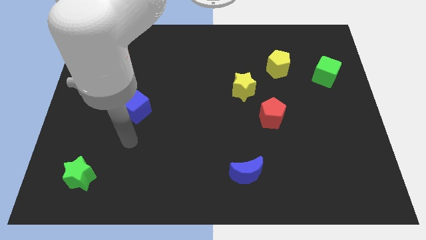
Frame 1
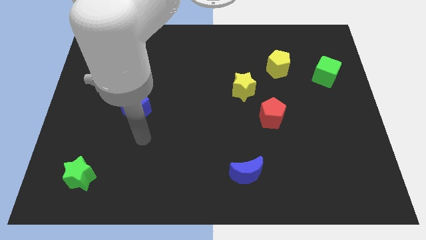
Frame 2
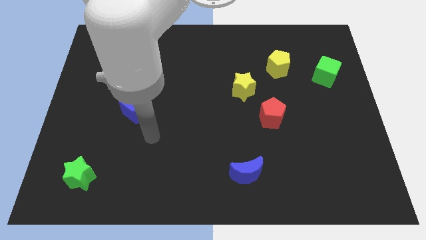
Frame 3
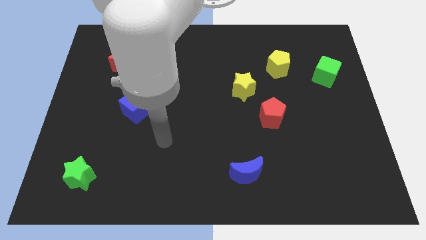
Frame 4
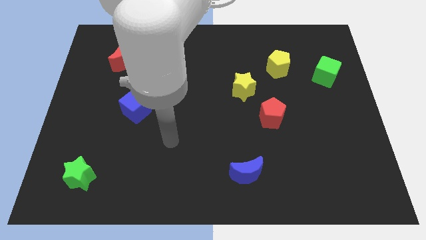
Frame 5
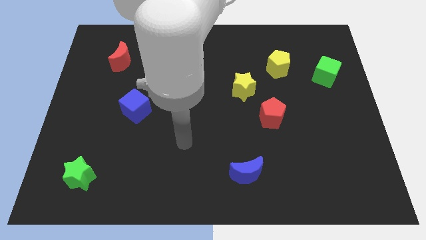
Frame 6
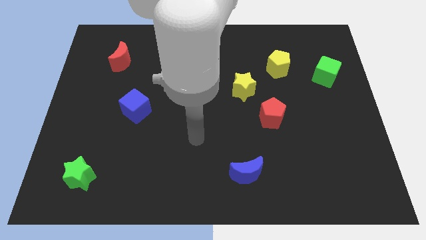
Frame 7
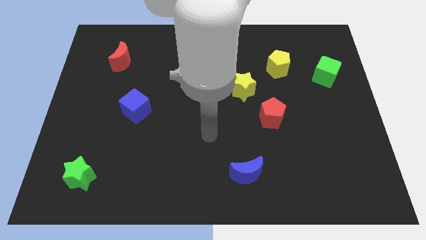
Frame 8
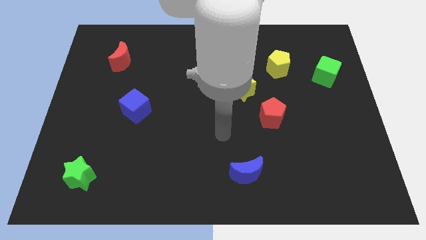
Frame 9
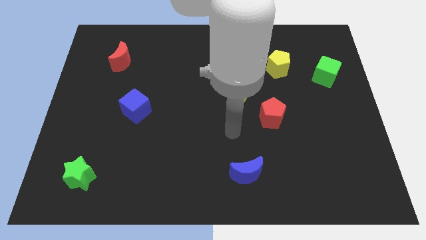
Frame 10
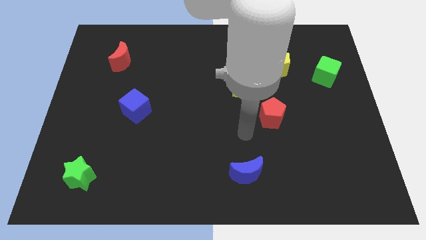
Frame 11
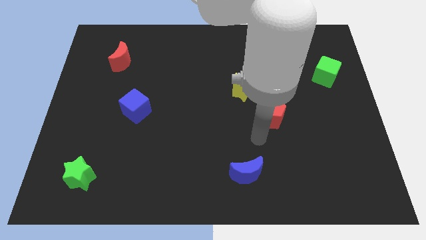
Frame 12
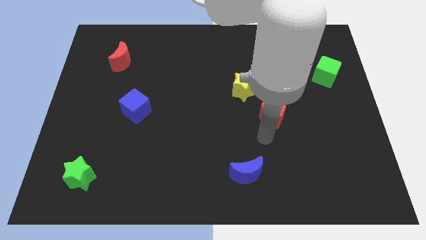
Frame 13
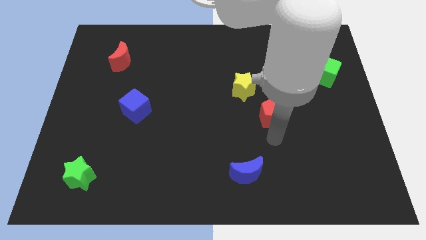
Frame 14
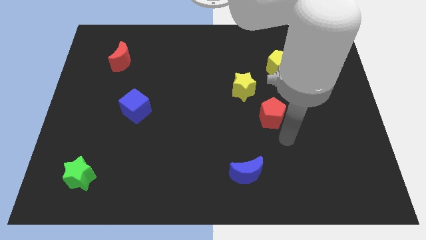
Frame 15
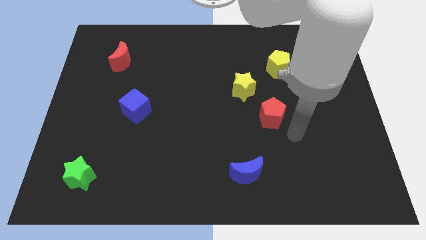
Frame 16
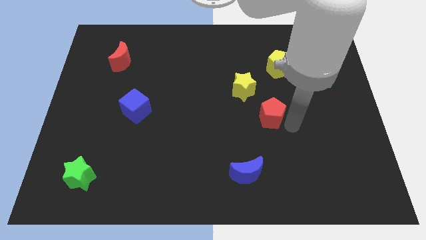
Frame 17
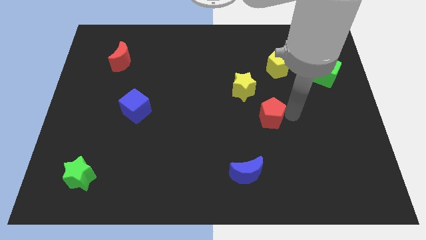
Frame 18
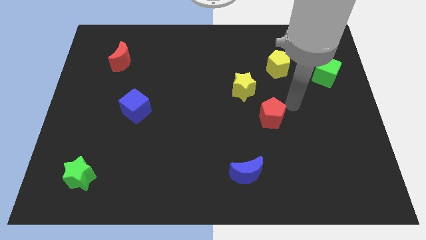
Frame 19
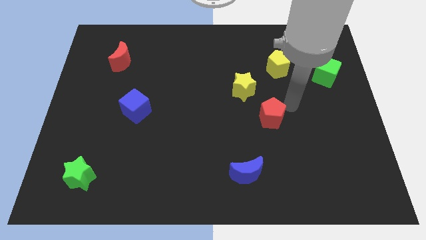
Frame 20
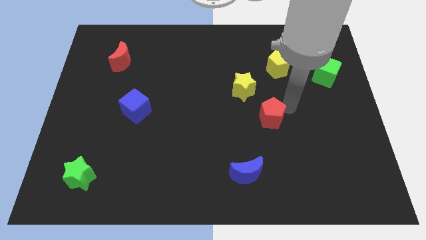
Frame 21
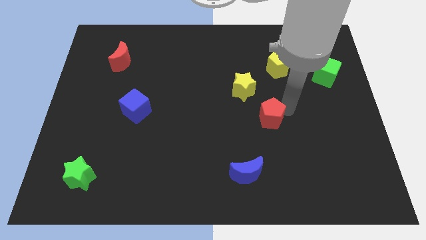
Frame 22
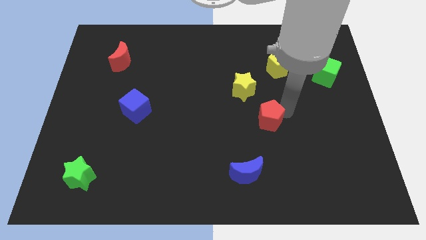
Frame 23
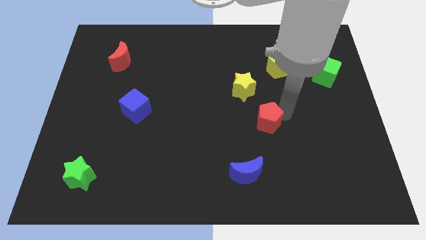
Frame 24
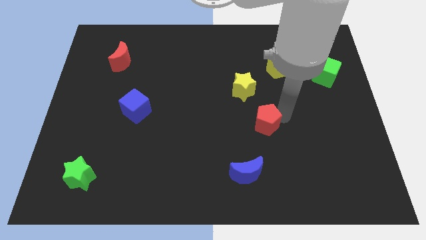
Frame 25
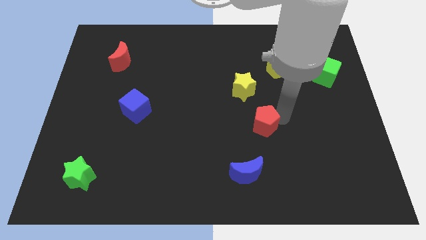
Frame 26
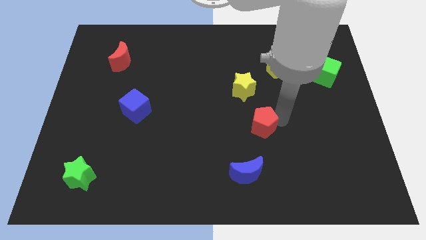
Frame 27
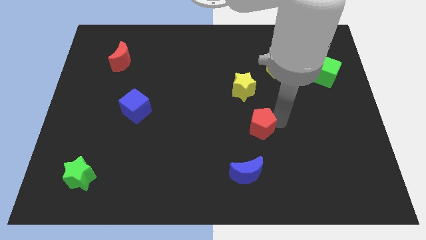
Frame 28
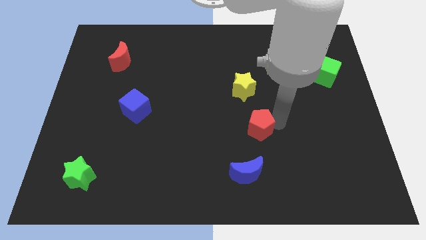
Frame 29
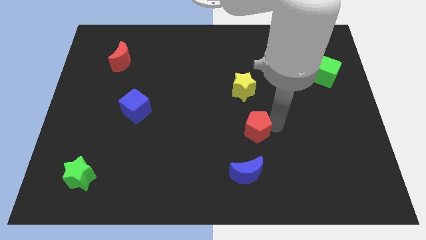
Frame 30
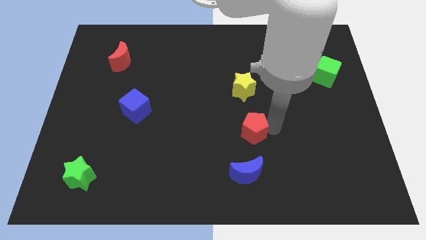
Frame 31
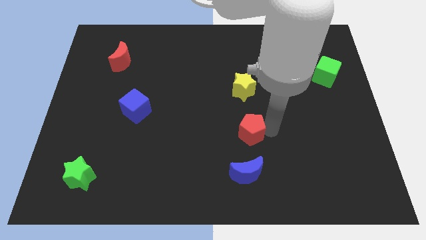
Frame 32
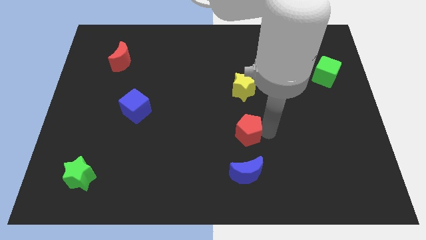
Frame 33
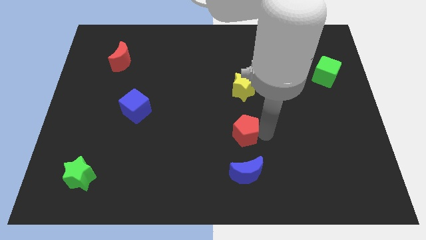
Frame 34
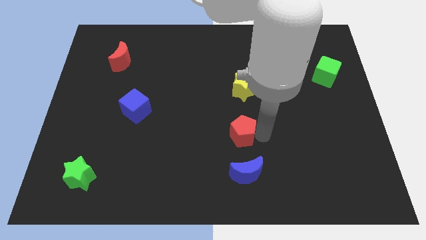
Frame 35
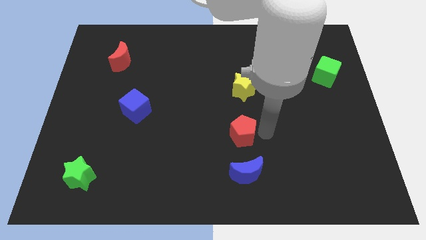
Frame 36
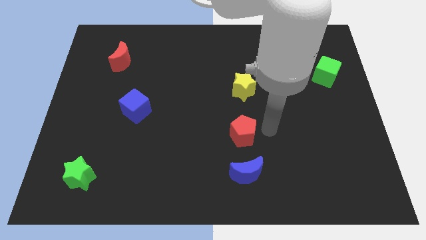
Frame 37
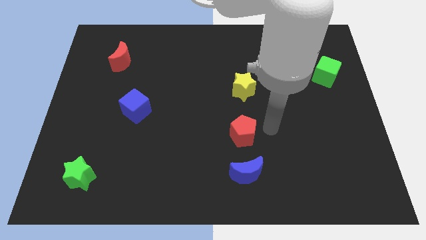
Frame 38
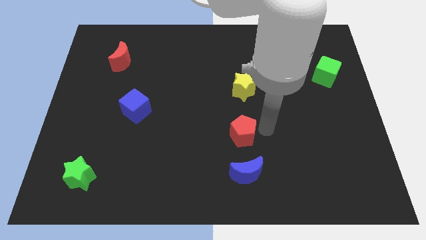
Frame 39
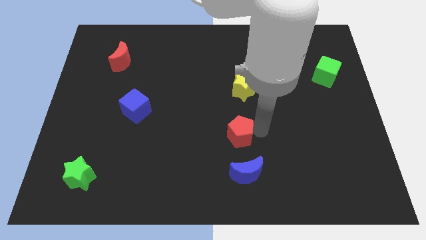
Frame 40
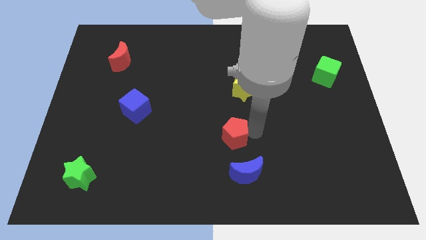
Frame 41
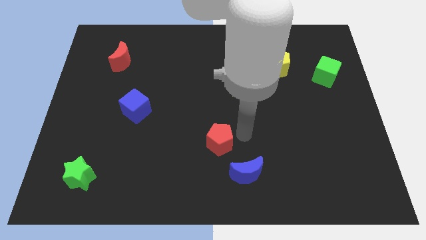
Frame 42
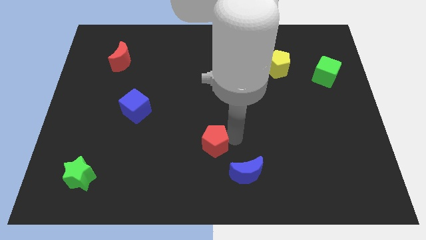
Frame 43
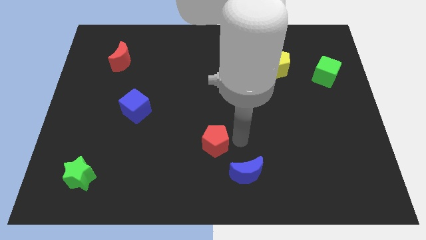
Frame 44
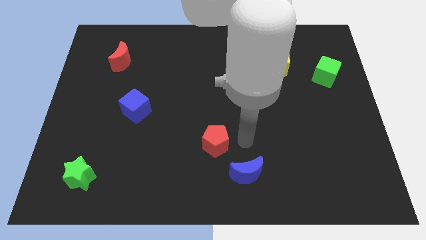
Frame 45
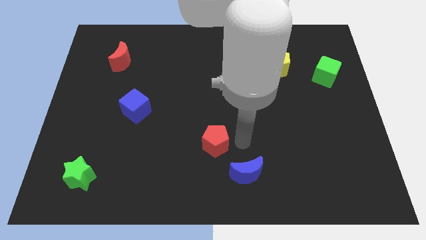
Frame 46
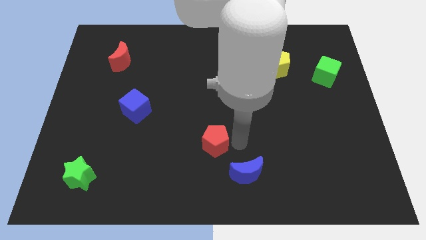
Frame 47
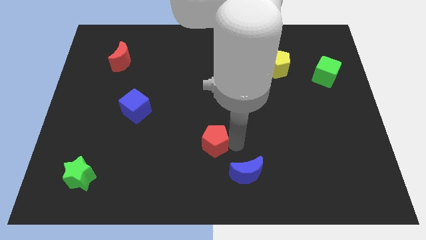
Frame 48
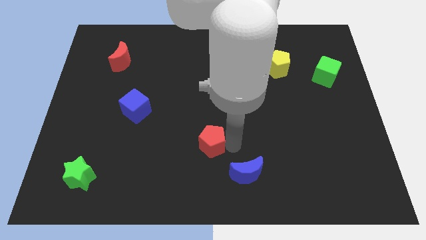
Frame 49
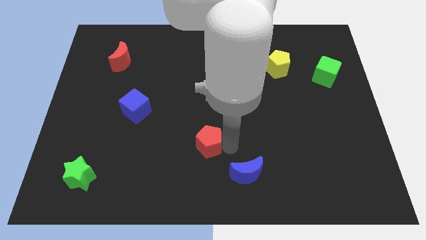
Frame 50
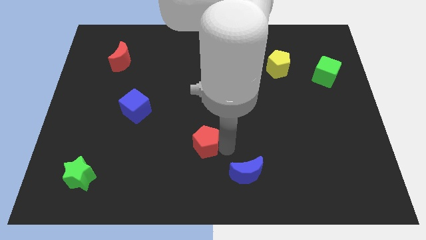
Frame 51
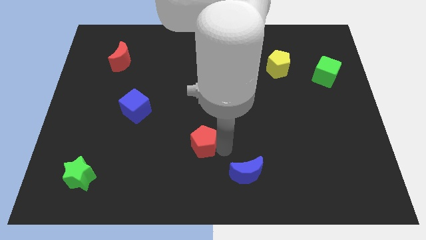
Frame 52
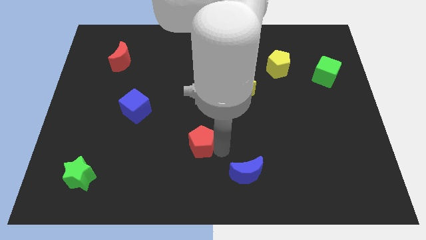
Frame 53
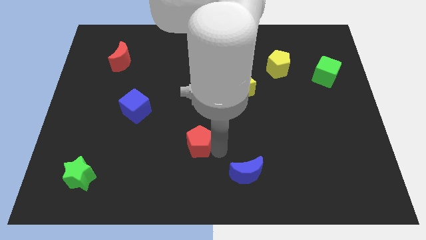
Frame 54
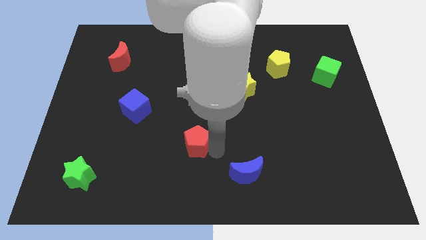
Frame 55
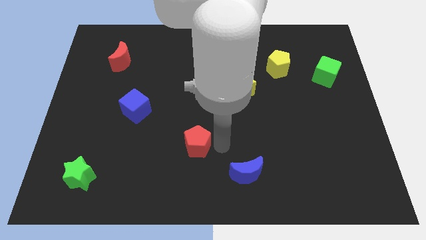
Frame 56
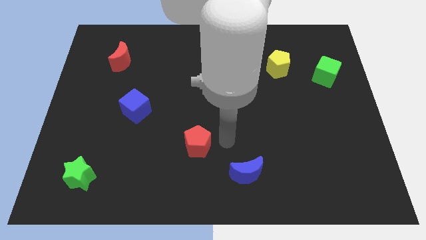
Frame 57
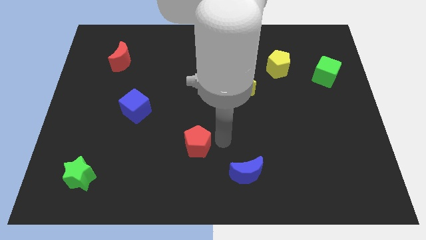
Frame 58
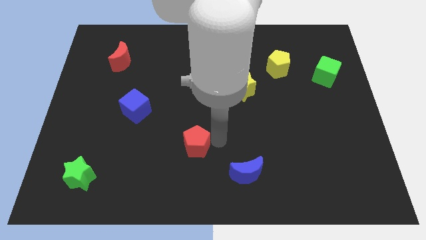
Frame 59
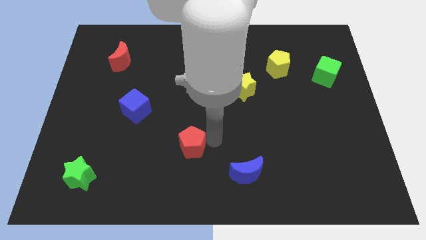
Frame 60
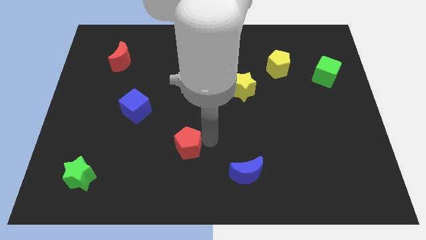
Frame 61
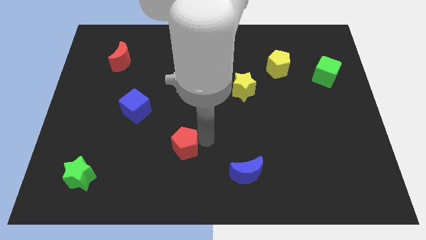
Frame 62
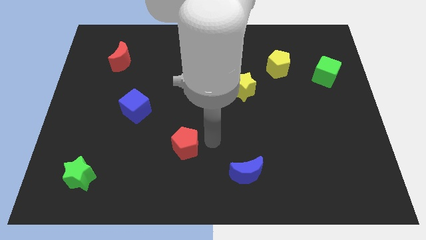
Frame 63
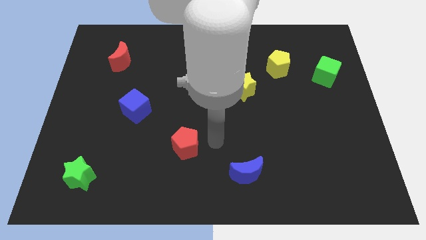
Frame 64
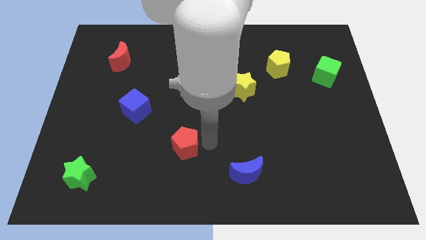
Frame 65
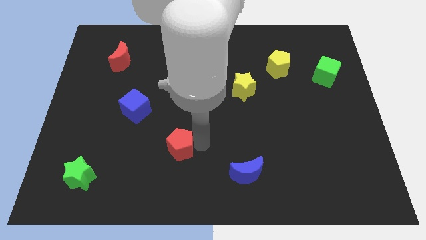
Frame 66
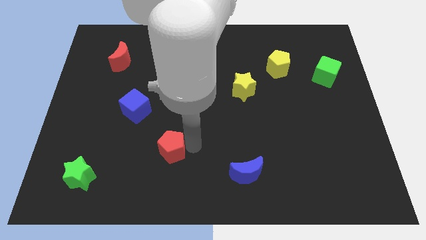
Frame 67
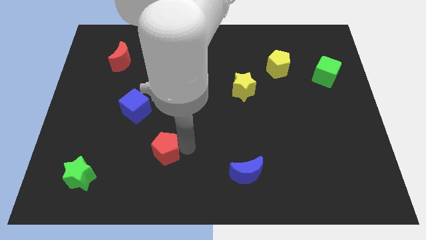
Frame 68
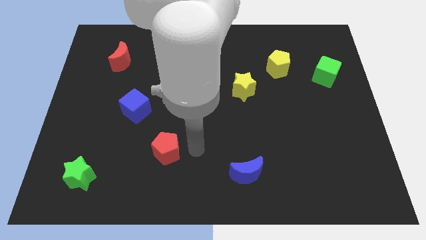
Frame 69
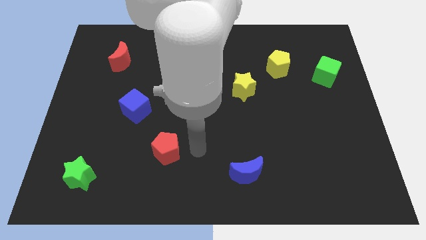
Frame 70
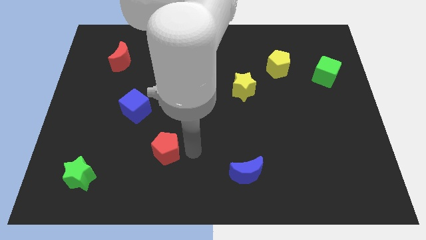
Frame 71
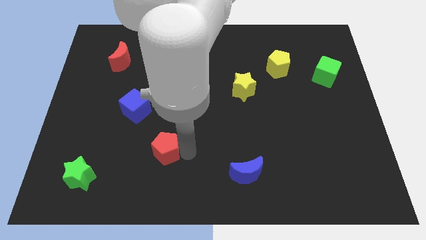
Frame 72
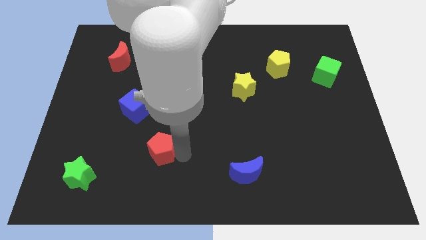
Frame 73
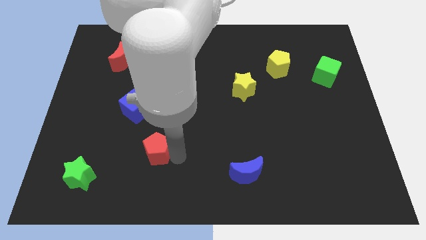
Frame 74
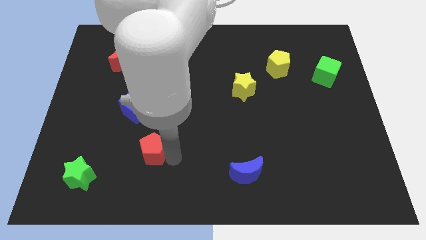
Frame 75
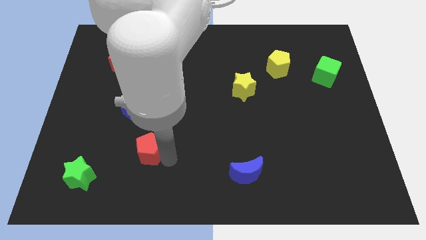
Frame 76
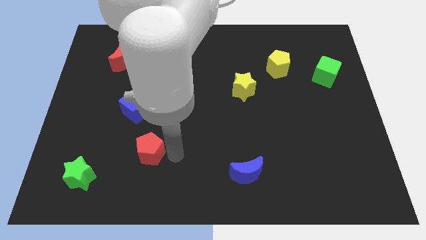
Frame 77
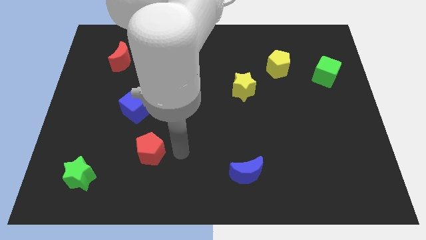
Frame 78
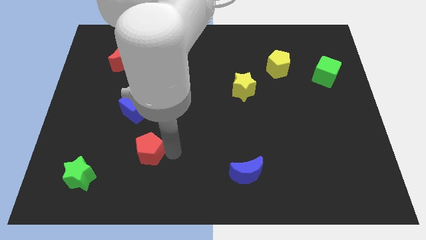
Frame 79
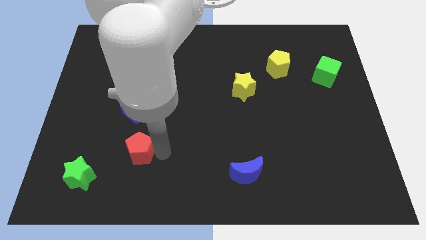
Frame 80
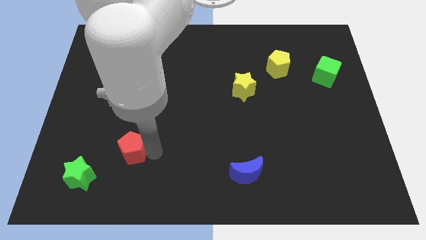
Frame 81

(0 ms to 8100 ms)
slide the red pentagon to the top right side of the green star
